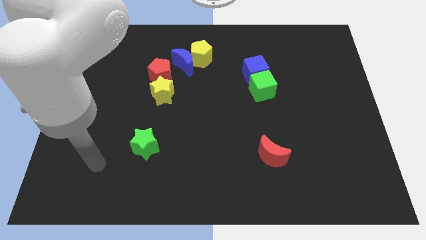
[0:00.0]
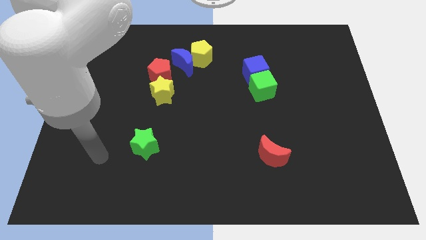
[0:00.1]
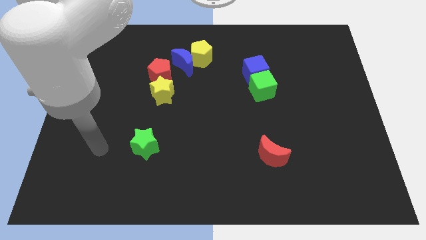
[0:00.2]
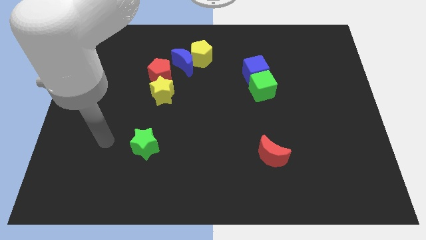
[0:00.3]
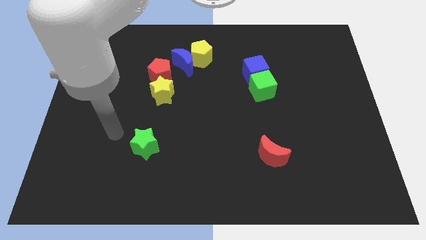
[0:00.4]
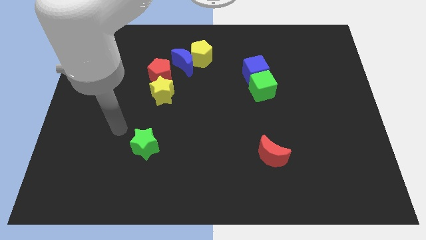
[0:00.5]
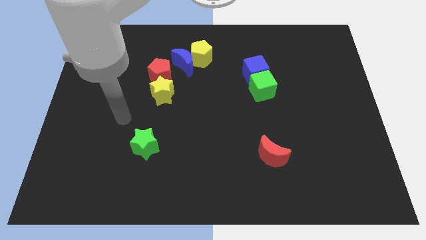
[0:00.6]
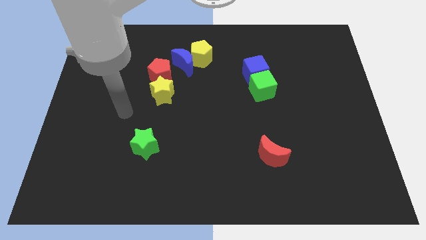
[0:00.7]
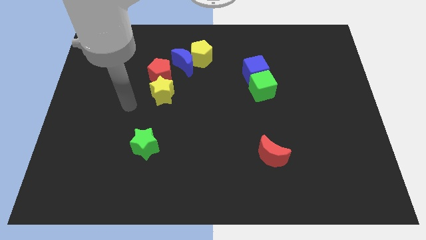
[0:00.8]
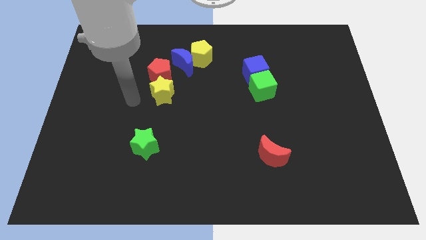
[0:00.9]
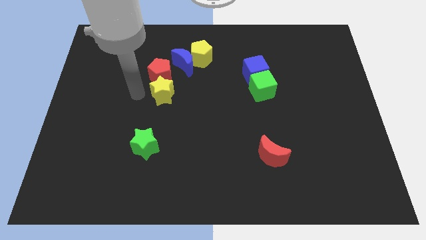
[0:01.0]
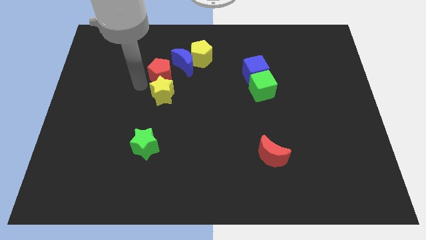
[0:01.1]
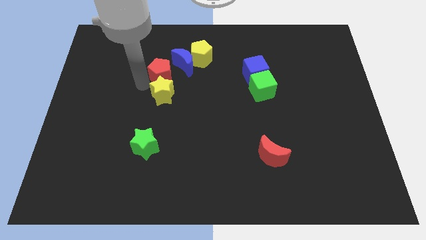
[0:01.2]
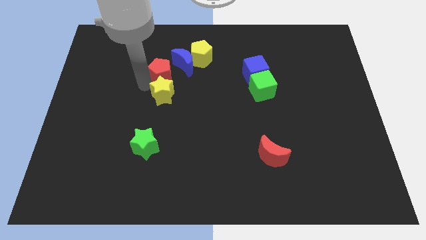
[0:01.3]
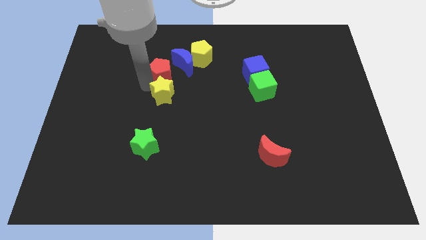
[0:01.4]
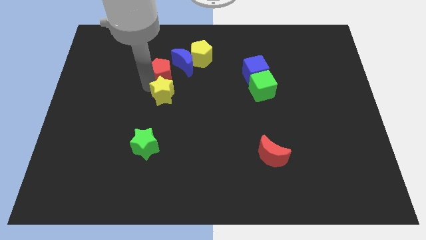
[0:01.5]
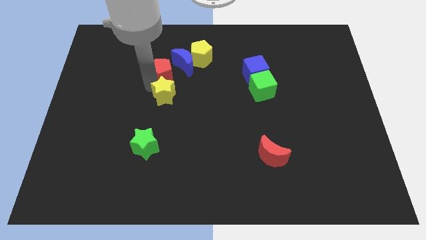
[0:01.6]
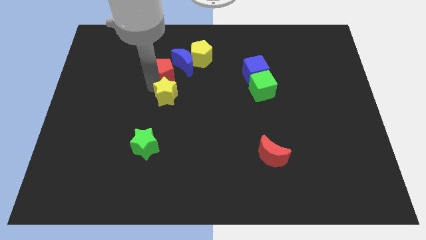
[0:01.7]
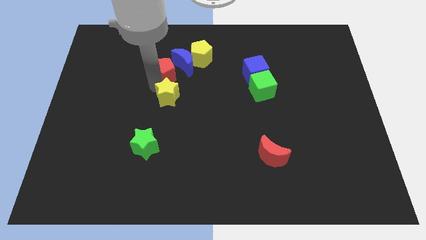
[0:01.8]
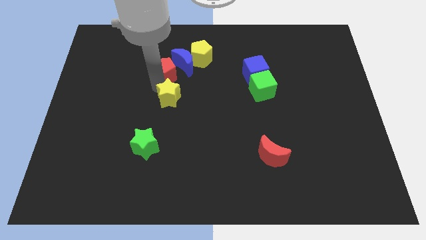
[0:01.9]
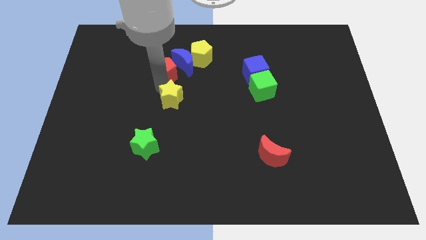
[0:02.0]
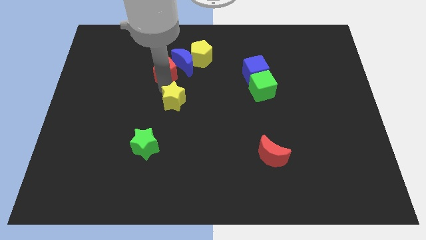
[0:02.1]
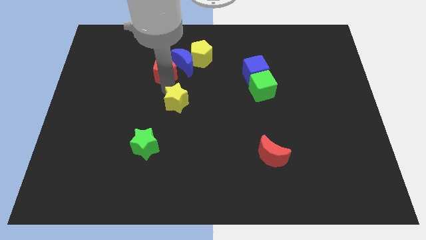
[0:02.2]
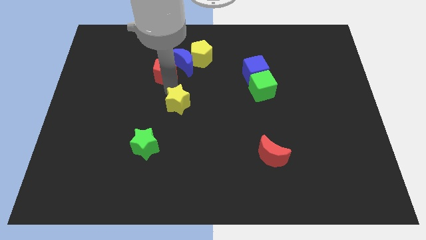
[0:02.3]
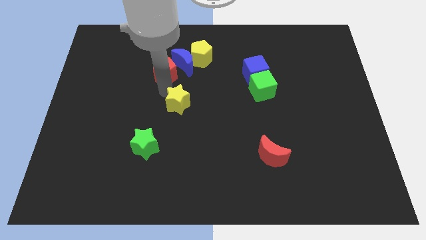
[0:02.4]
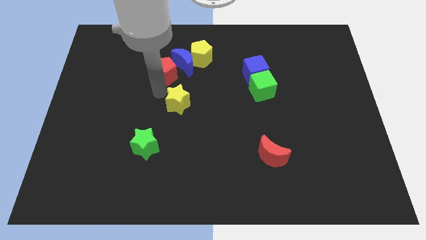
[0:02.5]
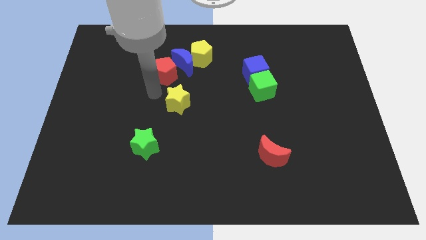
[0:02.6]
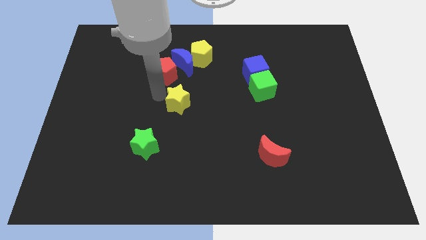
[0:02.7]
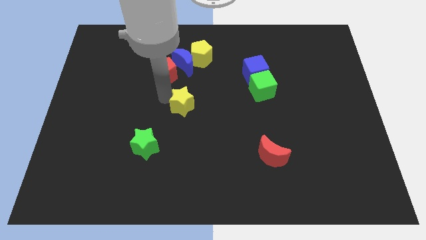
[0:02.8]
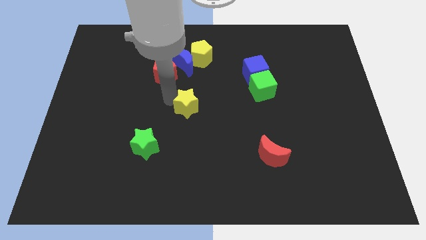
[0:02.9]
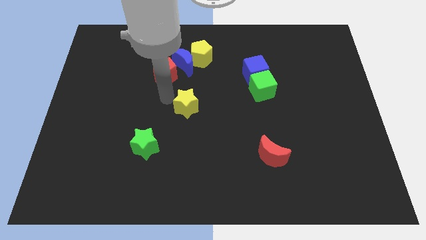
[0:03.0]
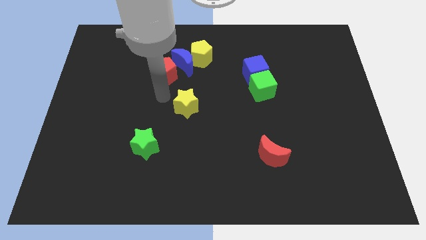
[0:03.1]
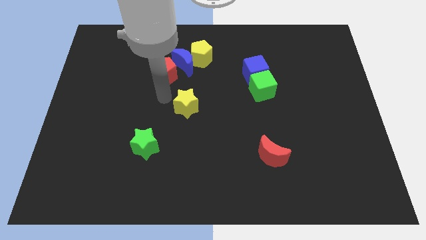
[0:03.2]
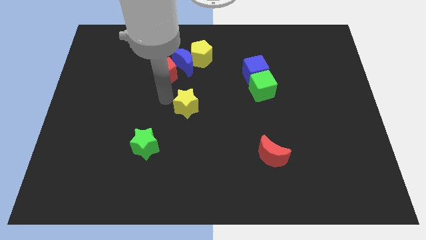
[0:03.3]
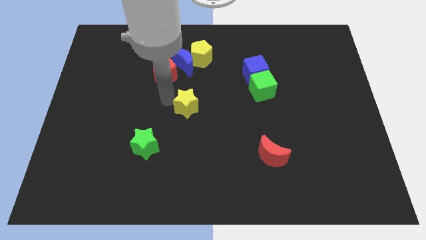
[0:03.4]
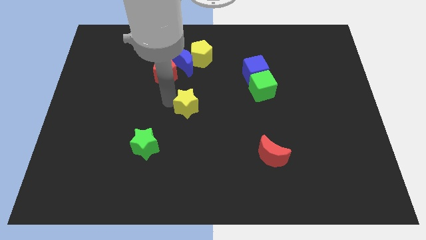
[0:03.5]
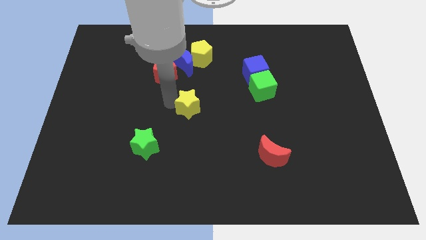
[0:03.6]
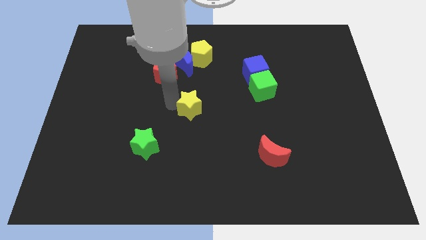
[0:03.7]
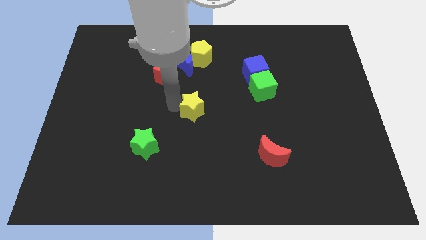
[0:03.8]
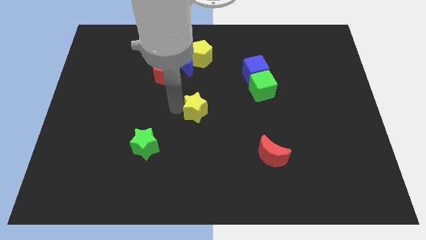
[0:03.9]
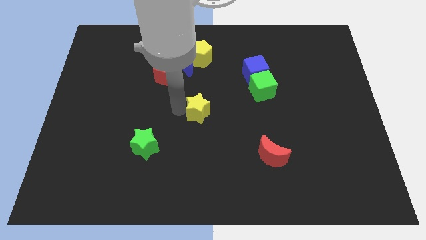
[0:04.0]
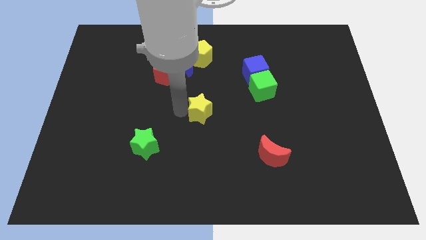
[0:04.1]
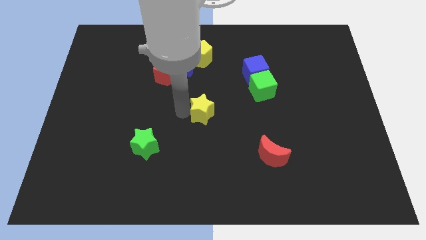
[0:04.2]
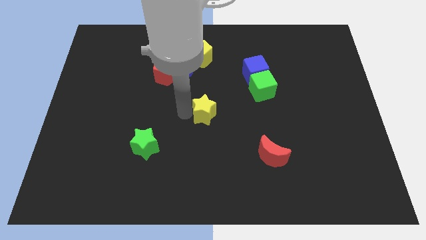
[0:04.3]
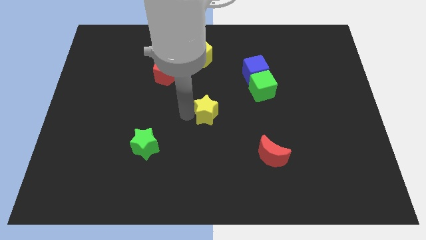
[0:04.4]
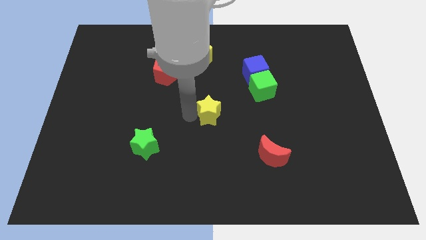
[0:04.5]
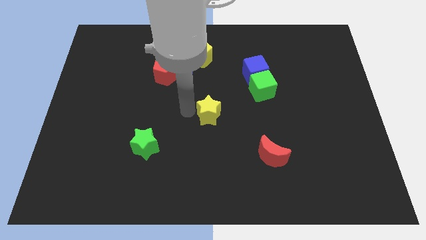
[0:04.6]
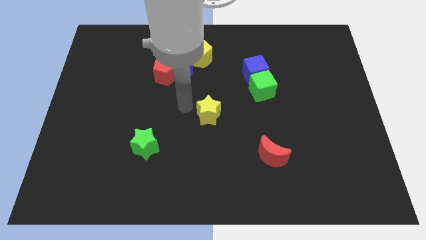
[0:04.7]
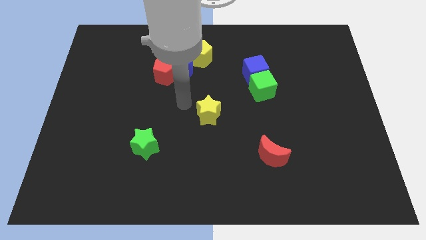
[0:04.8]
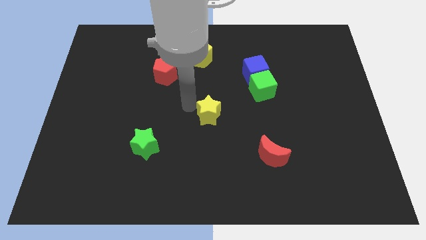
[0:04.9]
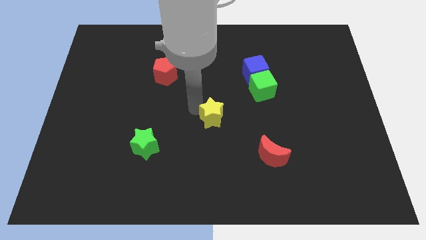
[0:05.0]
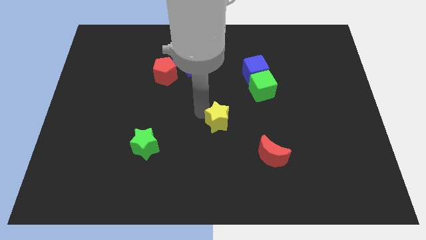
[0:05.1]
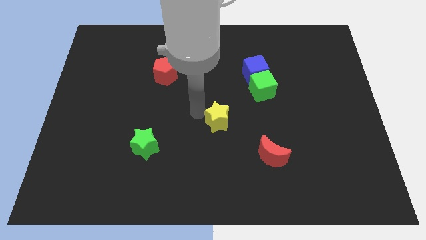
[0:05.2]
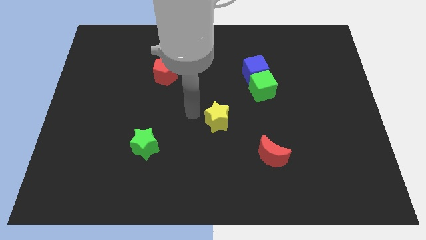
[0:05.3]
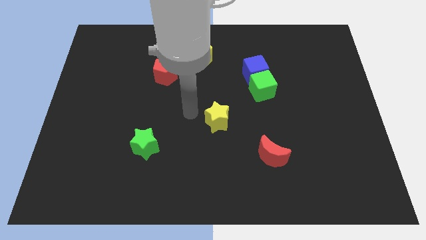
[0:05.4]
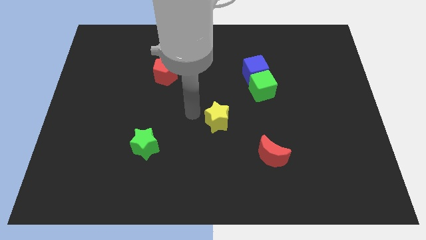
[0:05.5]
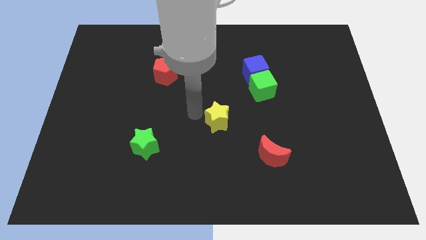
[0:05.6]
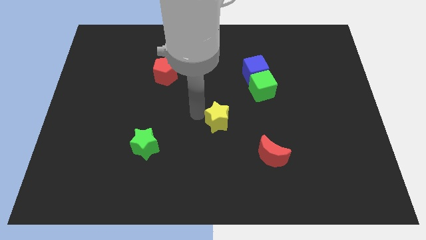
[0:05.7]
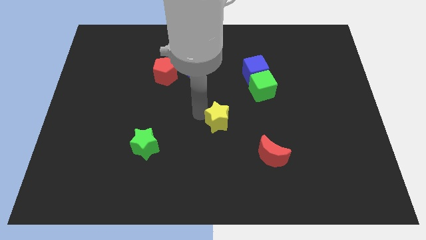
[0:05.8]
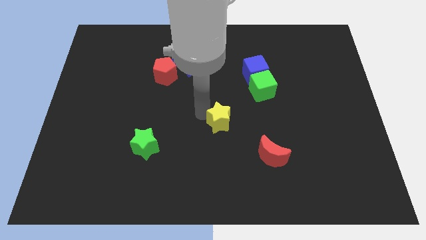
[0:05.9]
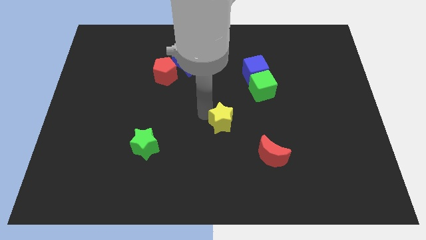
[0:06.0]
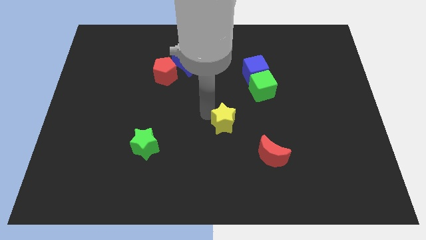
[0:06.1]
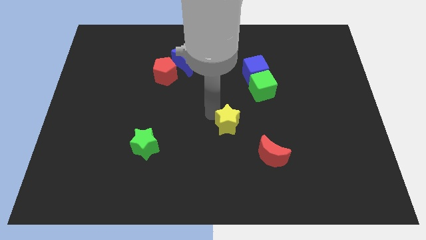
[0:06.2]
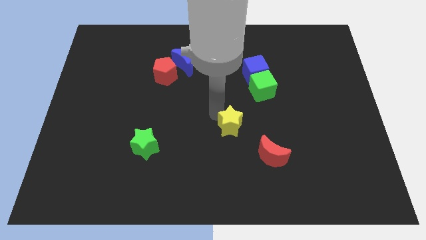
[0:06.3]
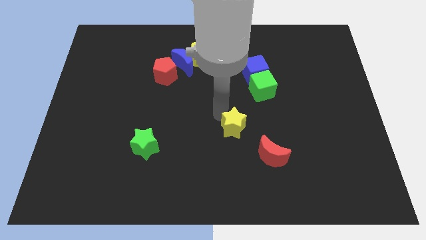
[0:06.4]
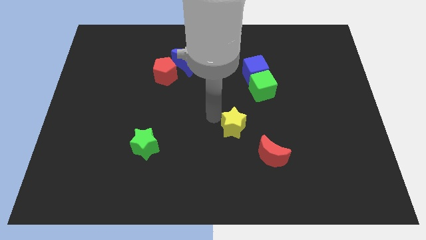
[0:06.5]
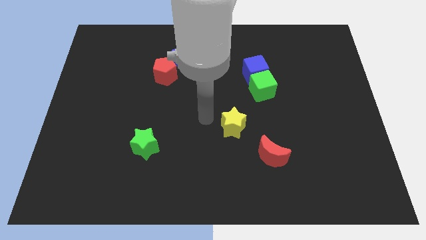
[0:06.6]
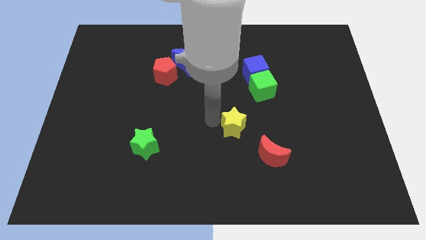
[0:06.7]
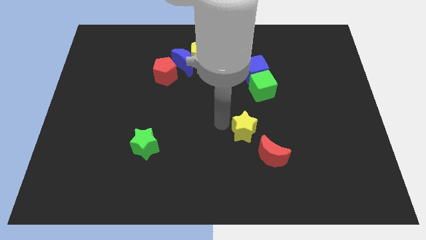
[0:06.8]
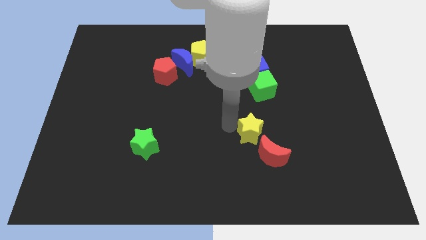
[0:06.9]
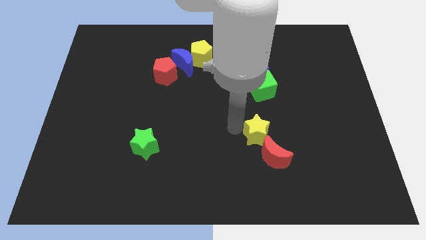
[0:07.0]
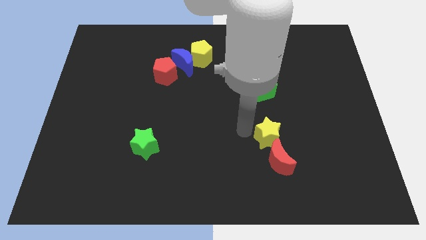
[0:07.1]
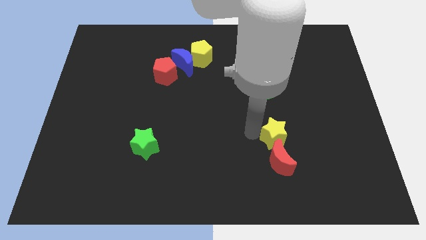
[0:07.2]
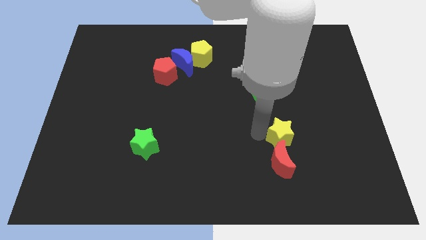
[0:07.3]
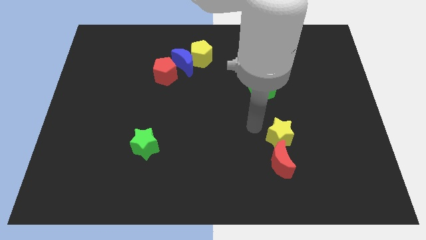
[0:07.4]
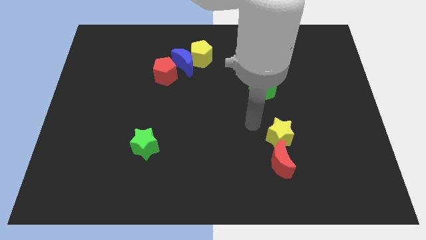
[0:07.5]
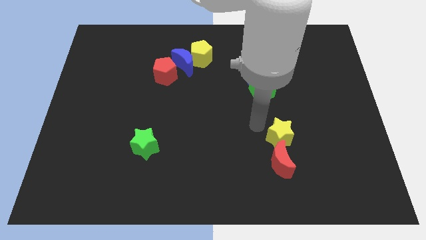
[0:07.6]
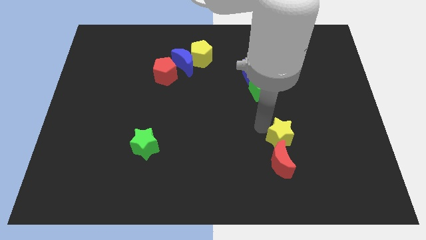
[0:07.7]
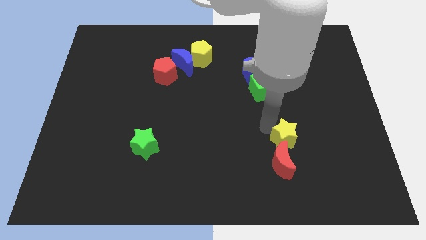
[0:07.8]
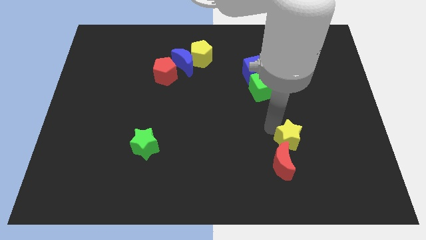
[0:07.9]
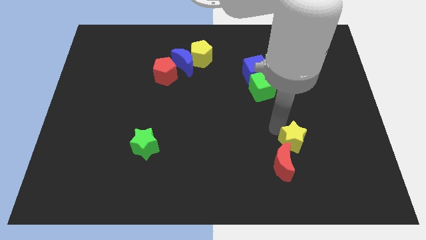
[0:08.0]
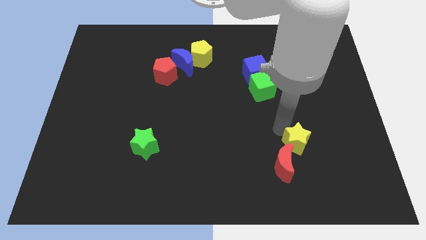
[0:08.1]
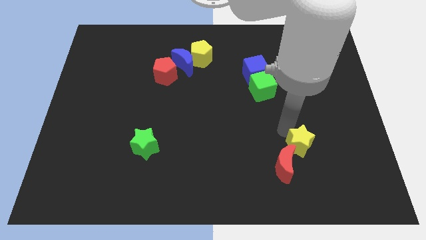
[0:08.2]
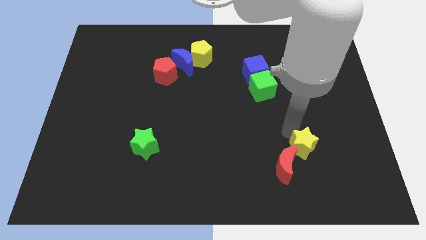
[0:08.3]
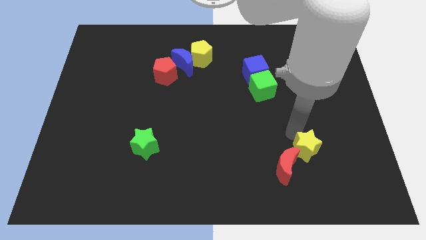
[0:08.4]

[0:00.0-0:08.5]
push the yellow star to the right of the red moon
